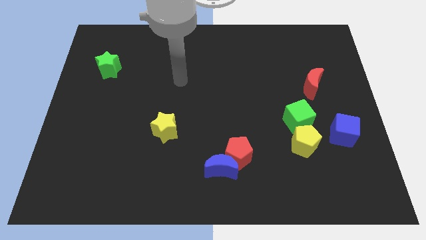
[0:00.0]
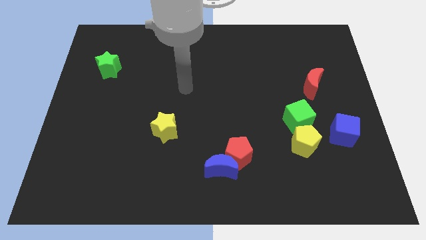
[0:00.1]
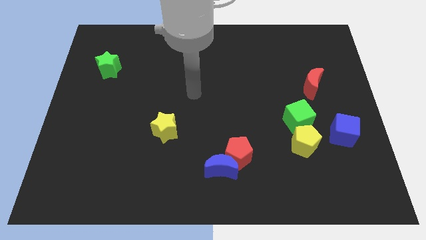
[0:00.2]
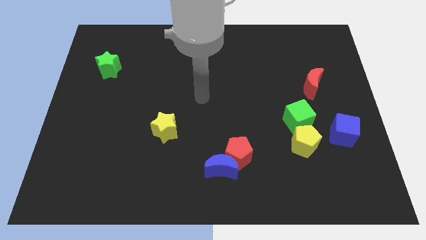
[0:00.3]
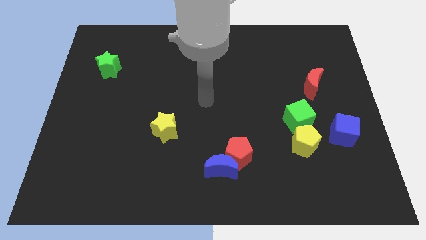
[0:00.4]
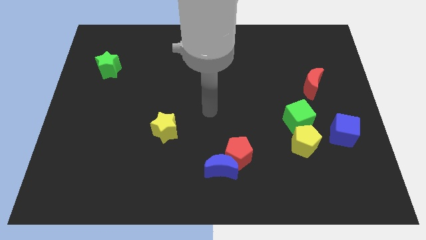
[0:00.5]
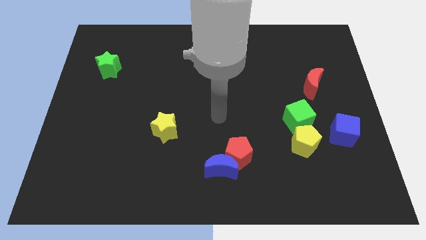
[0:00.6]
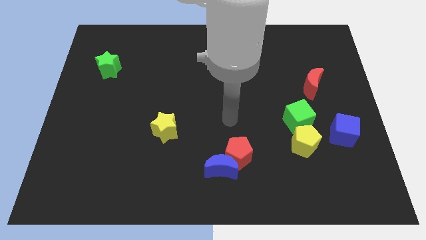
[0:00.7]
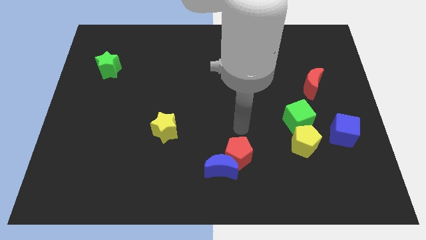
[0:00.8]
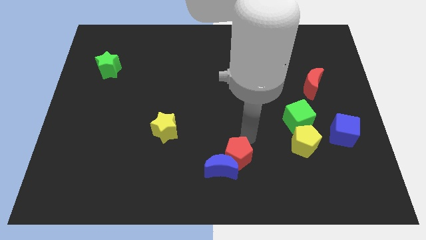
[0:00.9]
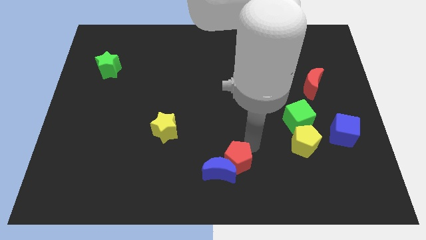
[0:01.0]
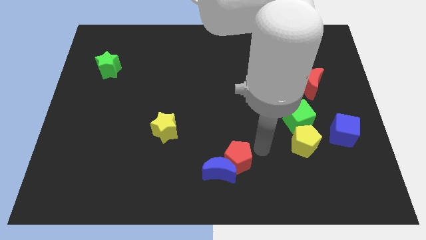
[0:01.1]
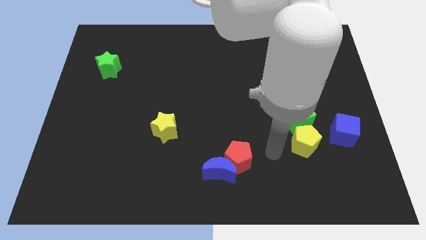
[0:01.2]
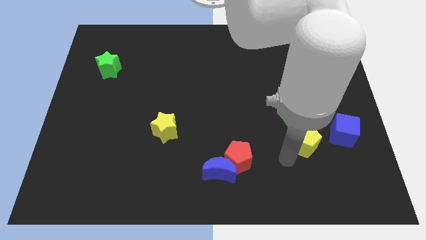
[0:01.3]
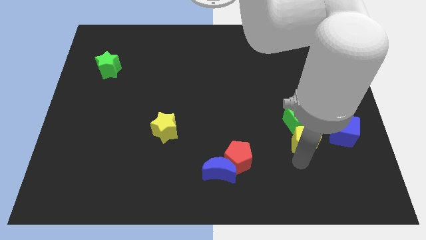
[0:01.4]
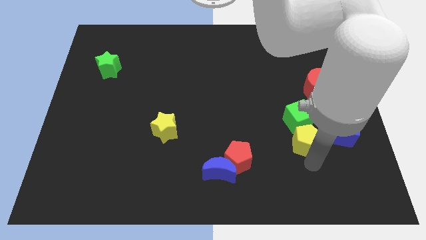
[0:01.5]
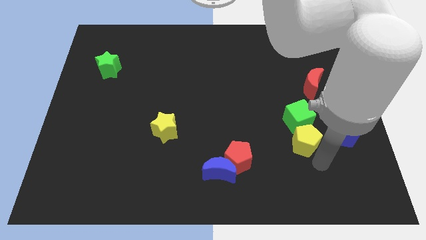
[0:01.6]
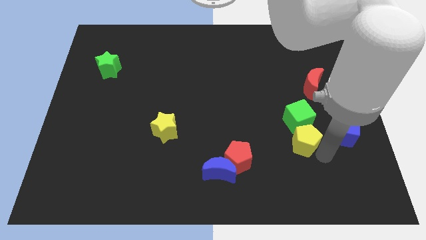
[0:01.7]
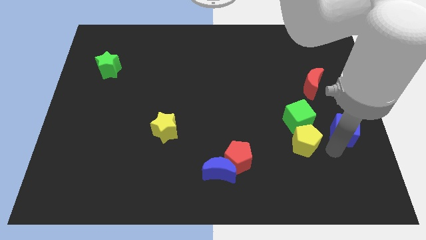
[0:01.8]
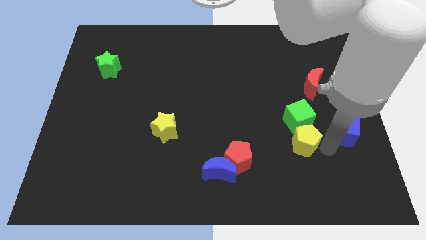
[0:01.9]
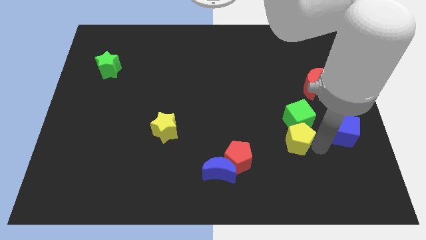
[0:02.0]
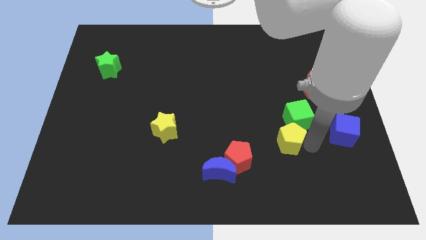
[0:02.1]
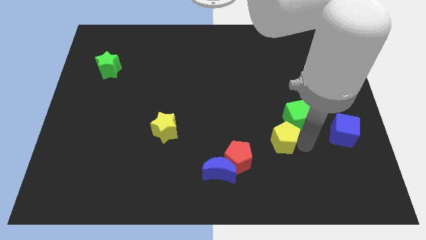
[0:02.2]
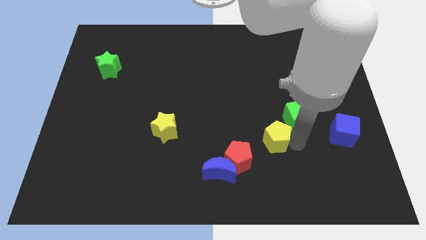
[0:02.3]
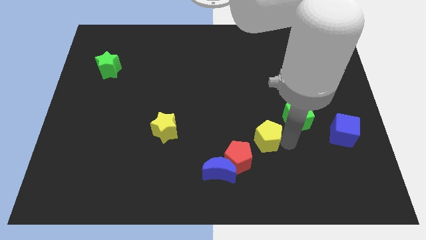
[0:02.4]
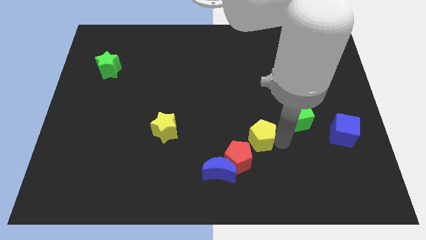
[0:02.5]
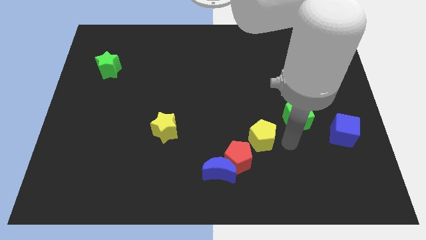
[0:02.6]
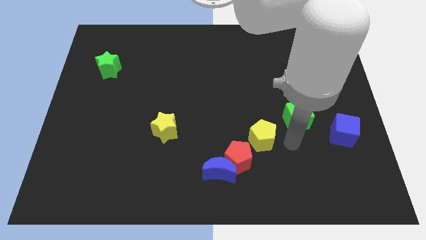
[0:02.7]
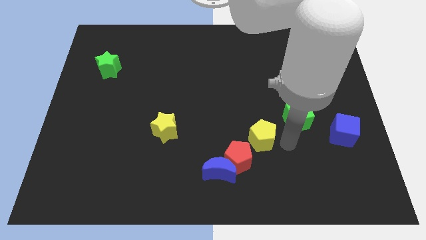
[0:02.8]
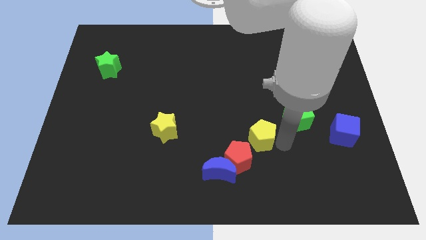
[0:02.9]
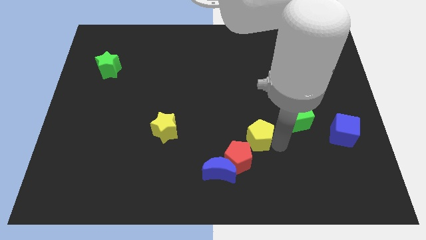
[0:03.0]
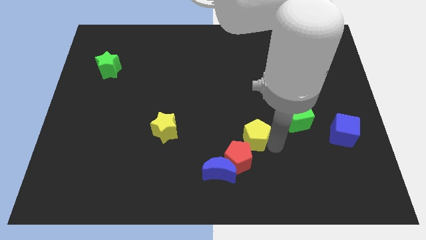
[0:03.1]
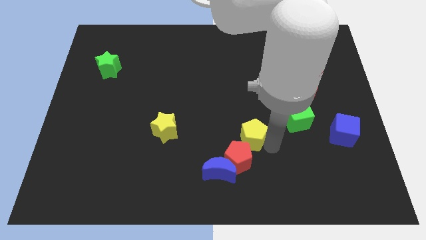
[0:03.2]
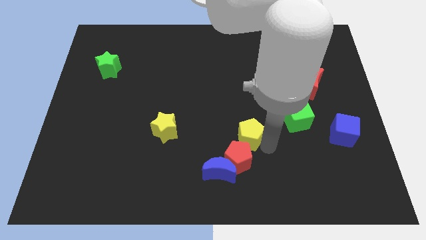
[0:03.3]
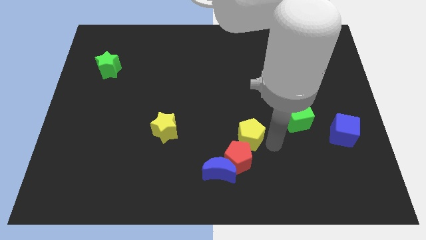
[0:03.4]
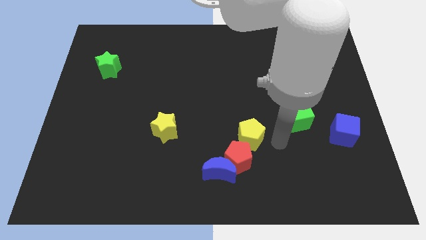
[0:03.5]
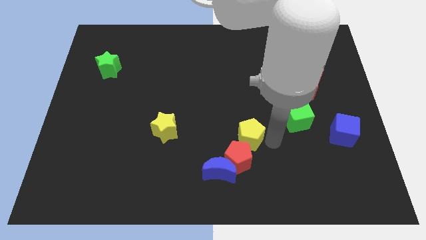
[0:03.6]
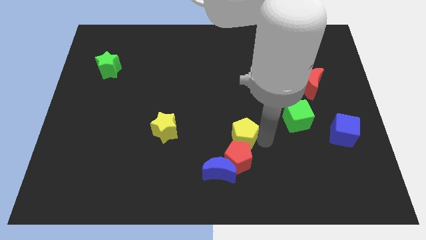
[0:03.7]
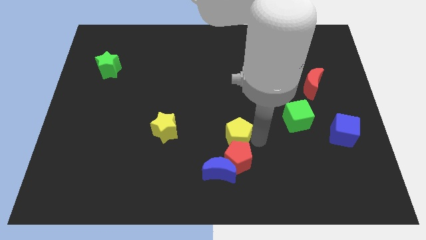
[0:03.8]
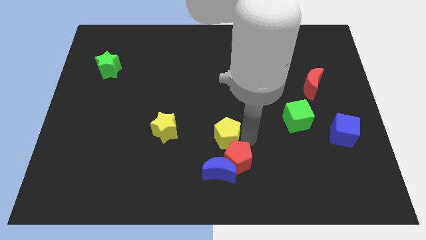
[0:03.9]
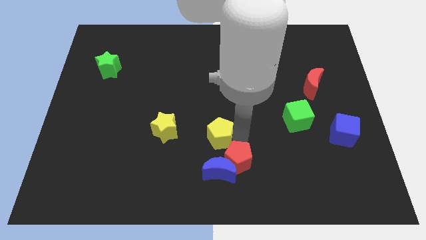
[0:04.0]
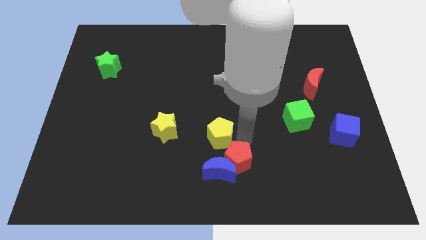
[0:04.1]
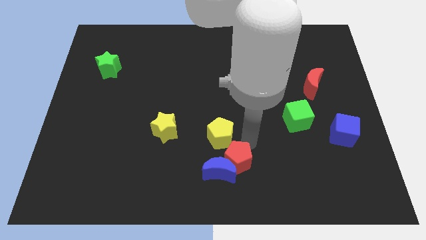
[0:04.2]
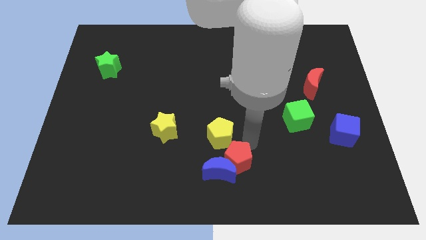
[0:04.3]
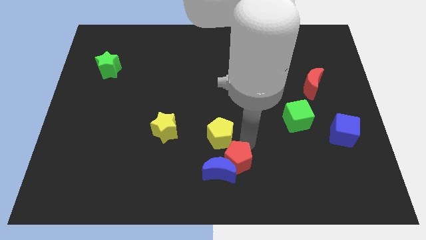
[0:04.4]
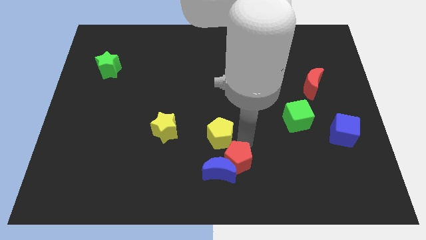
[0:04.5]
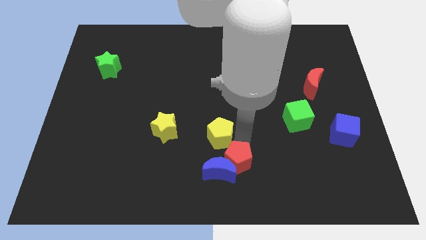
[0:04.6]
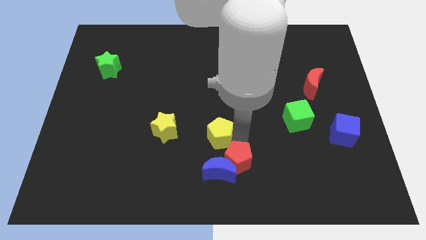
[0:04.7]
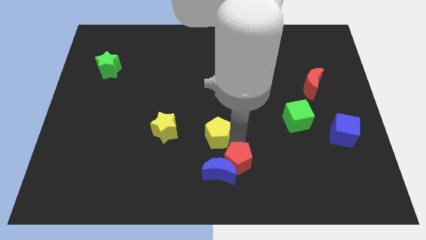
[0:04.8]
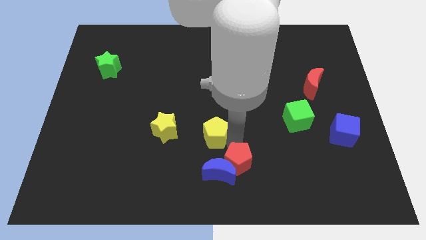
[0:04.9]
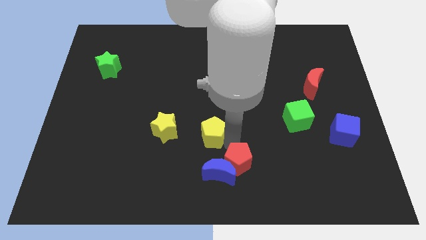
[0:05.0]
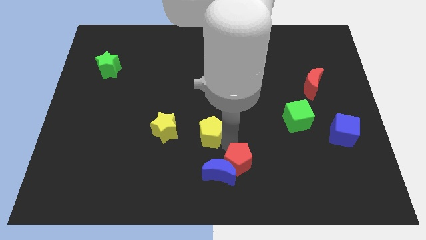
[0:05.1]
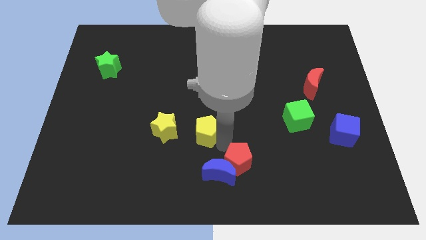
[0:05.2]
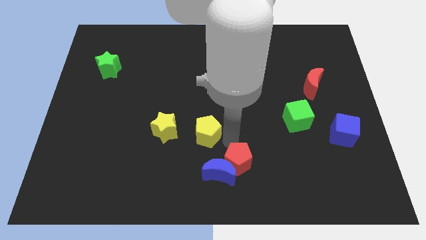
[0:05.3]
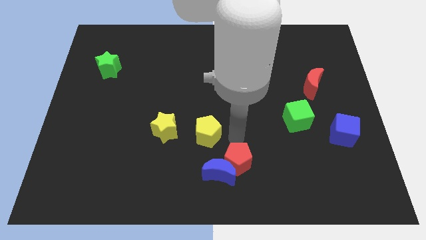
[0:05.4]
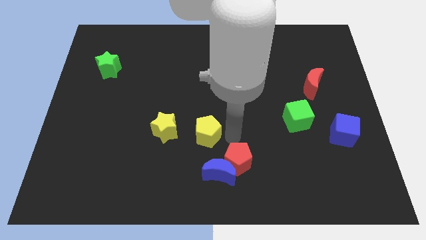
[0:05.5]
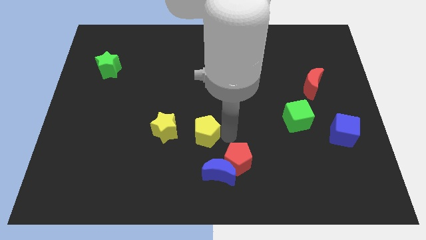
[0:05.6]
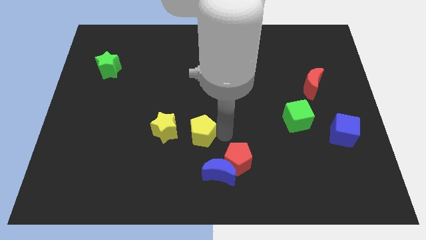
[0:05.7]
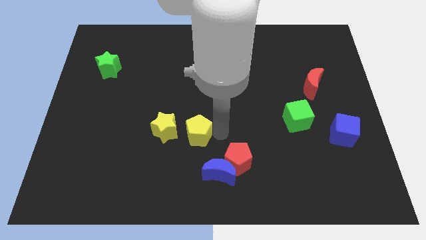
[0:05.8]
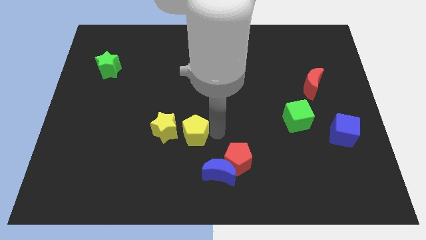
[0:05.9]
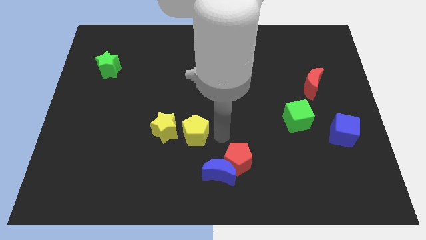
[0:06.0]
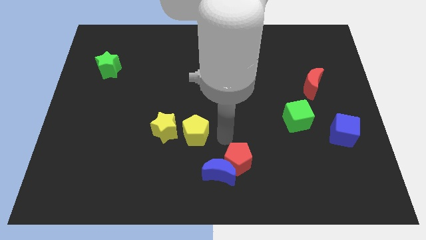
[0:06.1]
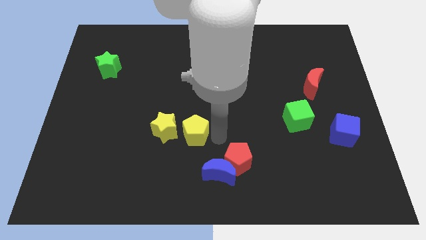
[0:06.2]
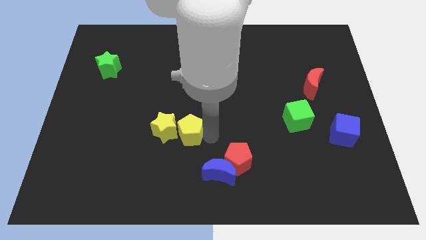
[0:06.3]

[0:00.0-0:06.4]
move the yellow pentagon to the yellow star
